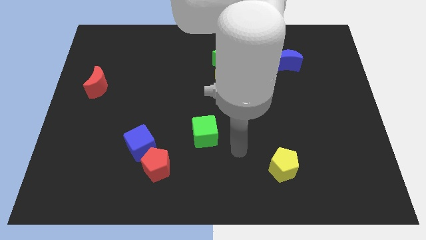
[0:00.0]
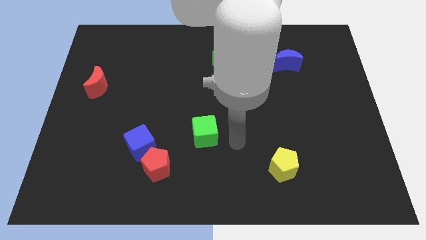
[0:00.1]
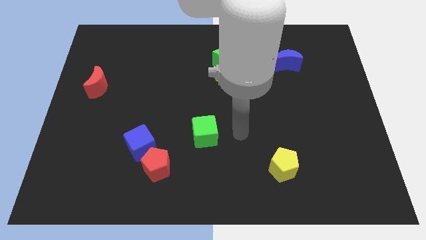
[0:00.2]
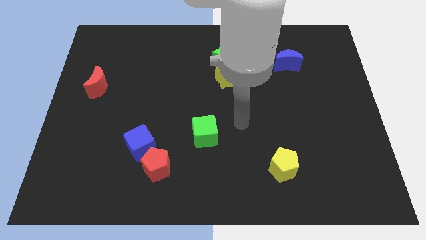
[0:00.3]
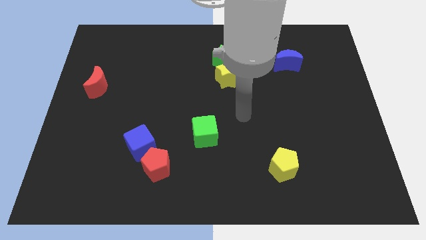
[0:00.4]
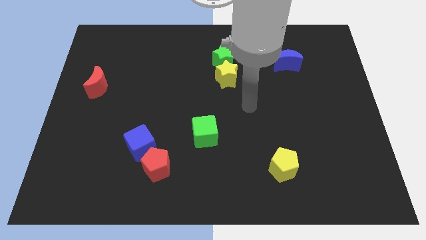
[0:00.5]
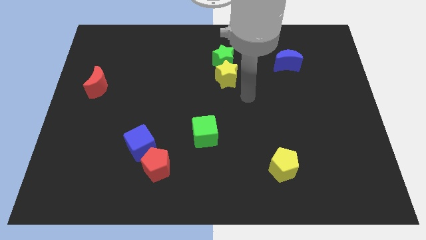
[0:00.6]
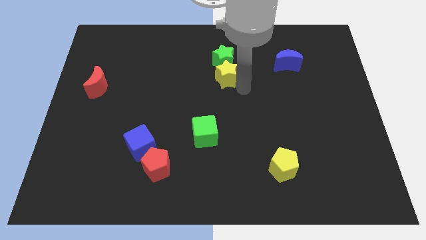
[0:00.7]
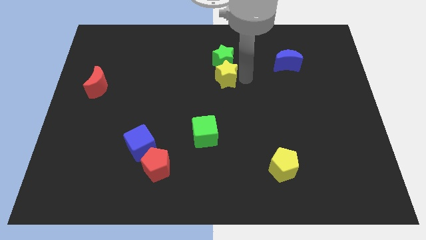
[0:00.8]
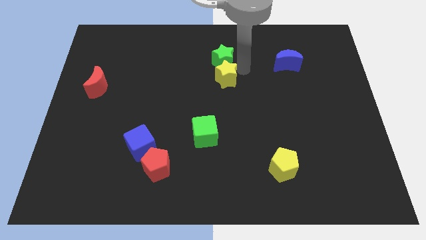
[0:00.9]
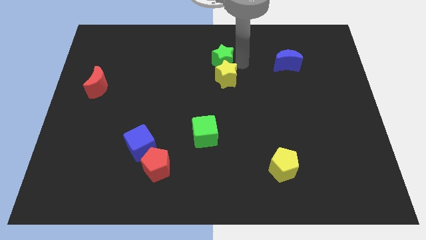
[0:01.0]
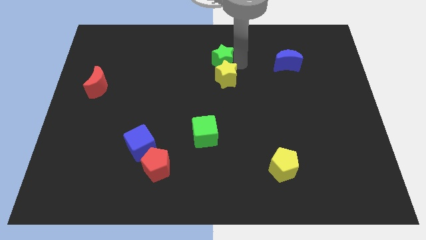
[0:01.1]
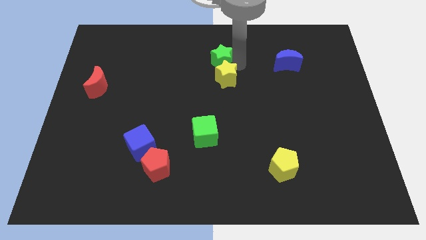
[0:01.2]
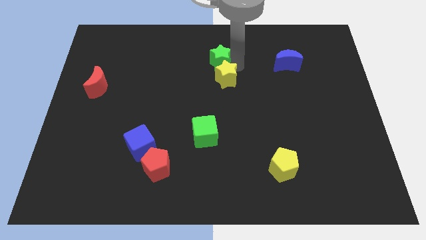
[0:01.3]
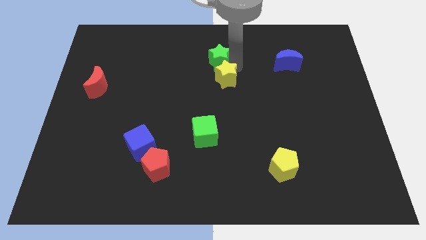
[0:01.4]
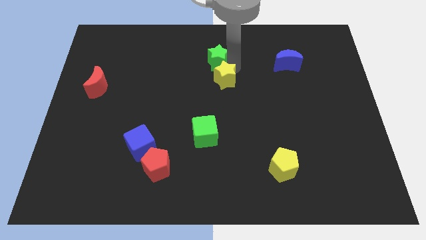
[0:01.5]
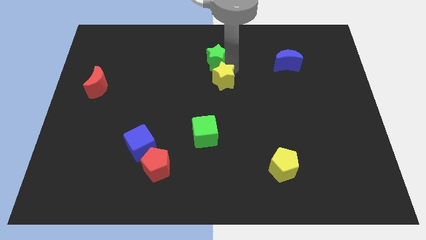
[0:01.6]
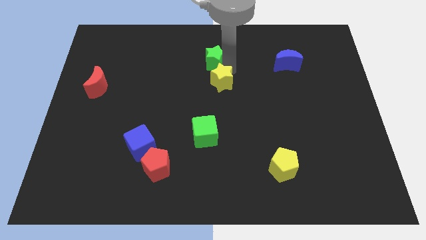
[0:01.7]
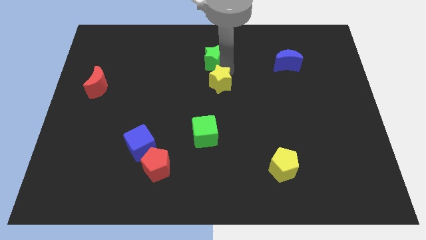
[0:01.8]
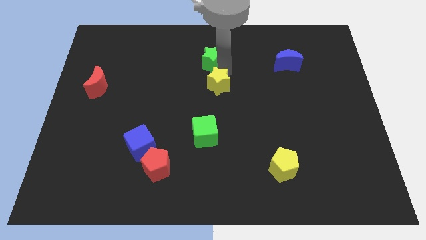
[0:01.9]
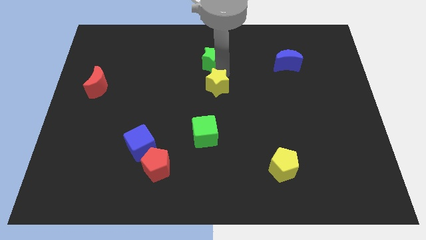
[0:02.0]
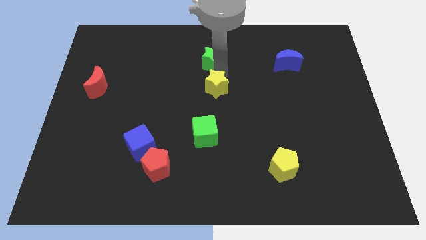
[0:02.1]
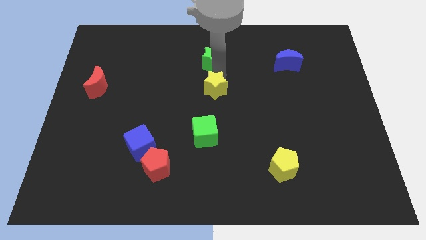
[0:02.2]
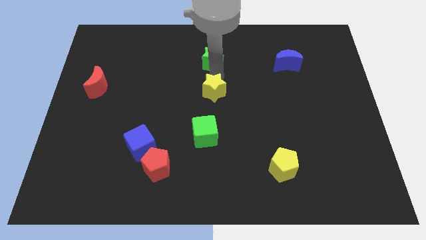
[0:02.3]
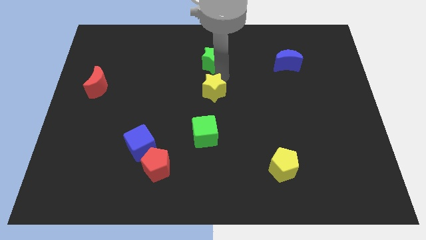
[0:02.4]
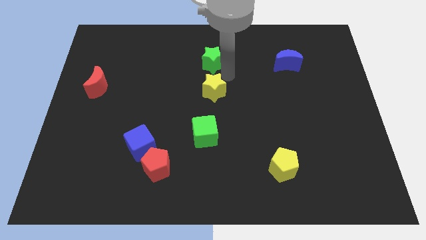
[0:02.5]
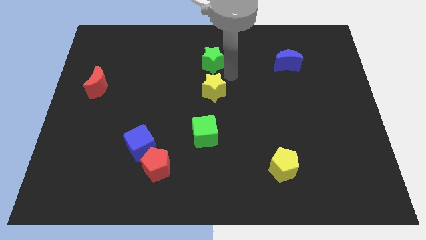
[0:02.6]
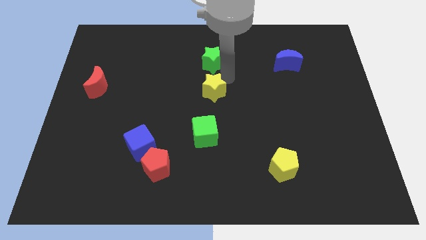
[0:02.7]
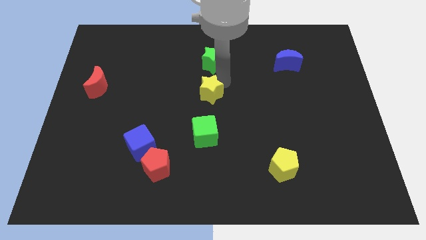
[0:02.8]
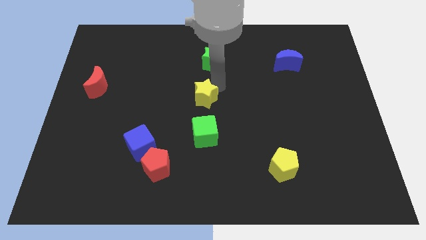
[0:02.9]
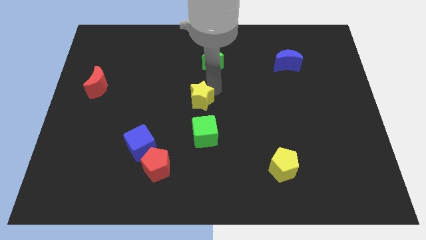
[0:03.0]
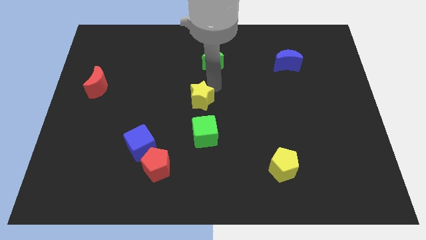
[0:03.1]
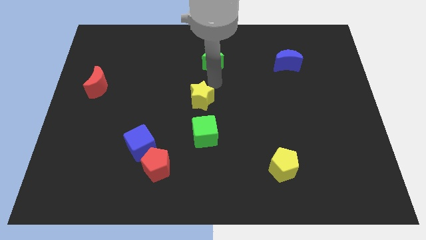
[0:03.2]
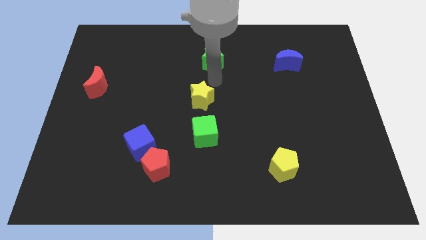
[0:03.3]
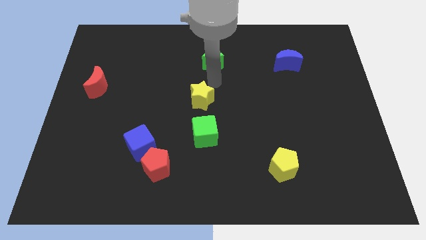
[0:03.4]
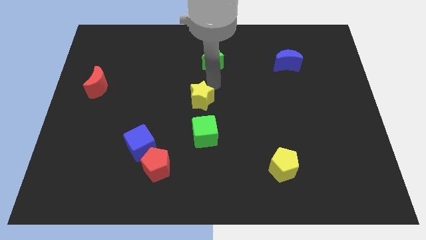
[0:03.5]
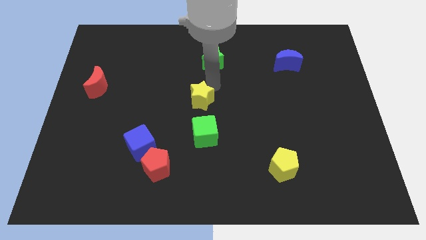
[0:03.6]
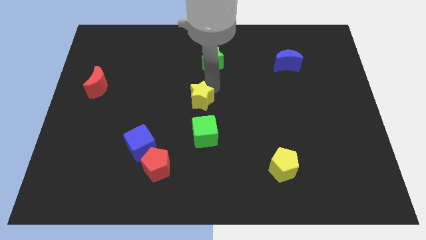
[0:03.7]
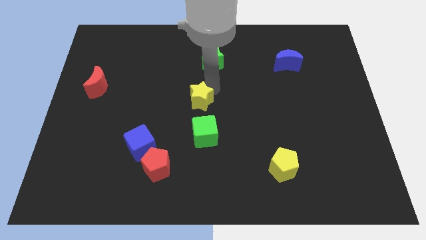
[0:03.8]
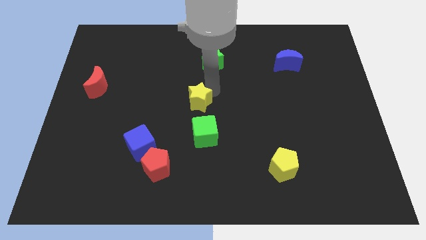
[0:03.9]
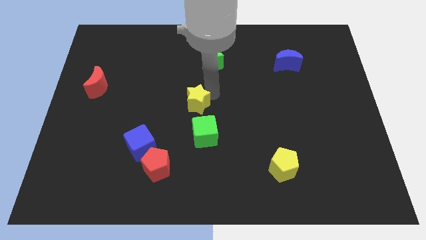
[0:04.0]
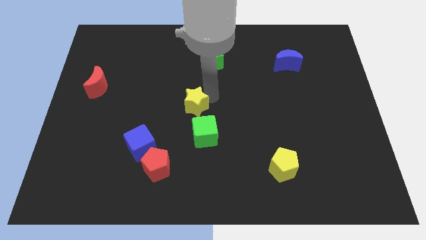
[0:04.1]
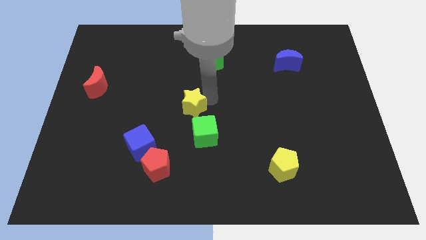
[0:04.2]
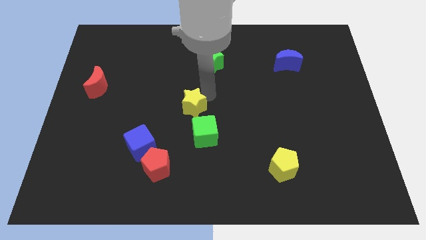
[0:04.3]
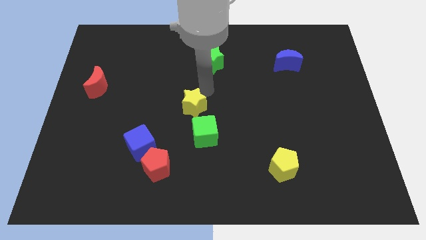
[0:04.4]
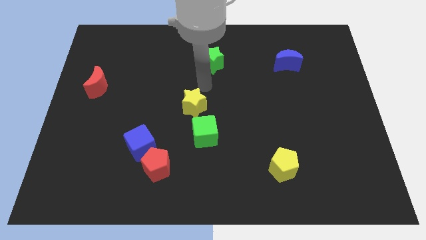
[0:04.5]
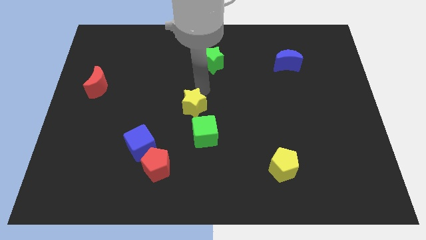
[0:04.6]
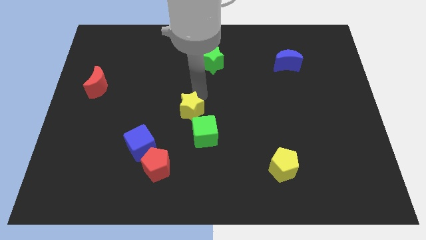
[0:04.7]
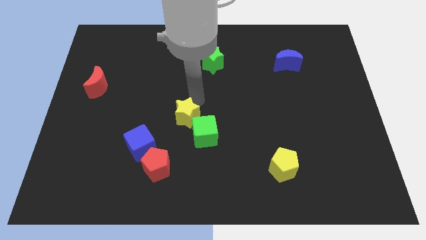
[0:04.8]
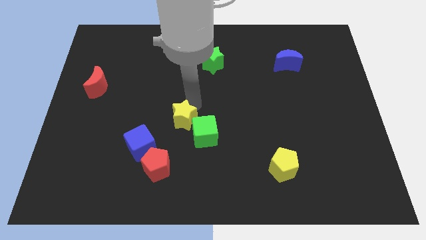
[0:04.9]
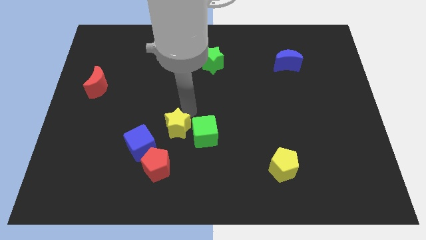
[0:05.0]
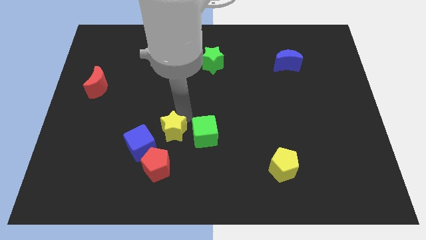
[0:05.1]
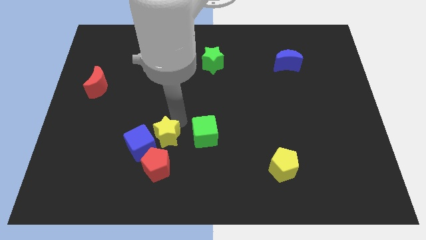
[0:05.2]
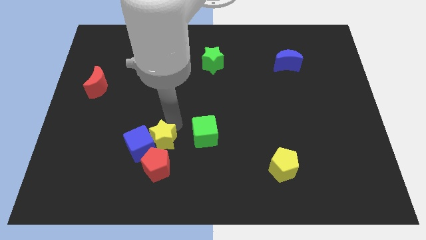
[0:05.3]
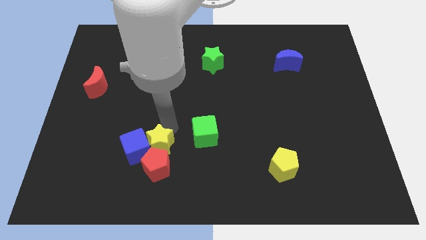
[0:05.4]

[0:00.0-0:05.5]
slide the yellow star to the red pentagon

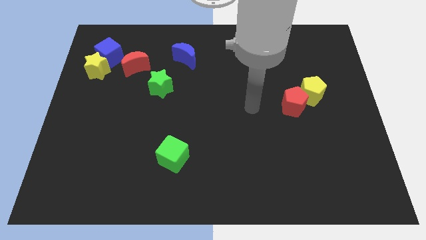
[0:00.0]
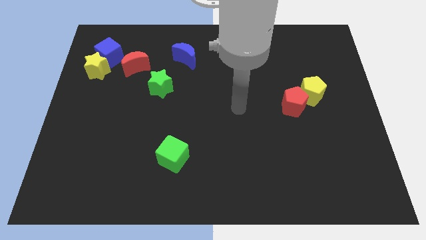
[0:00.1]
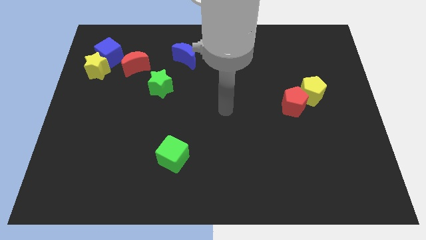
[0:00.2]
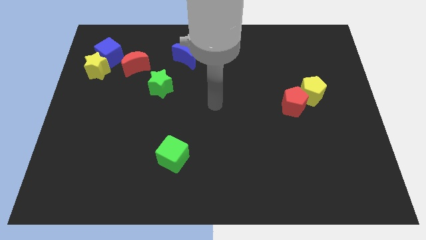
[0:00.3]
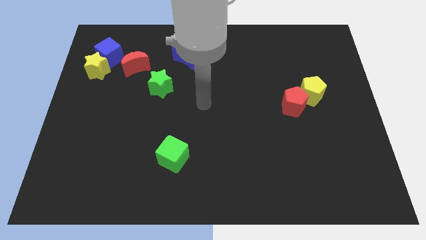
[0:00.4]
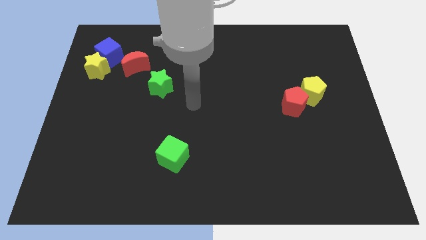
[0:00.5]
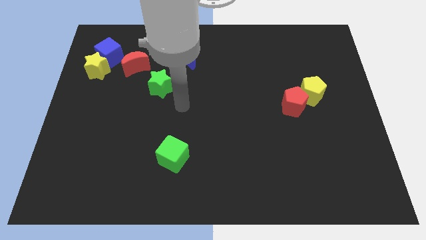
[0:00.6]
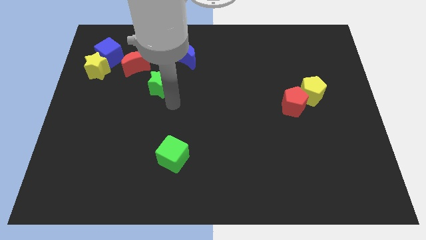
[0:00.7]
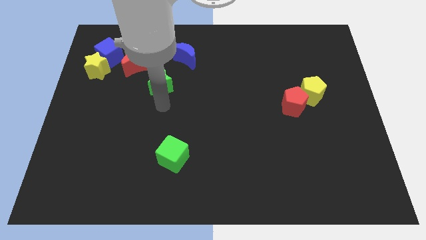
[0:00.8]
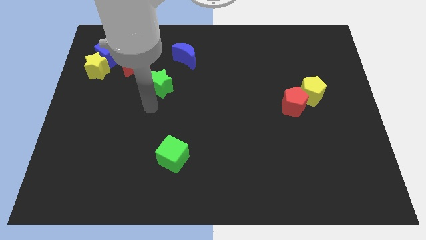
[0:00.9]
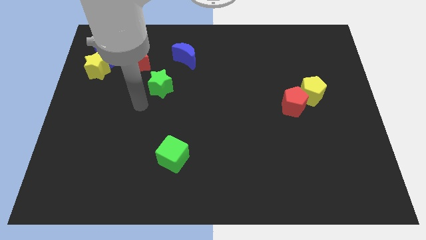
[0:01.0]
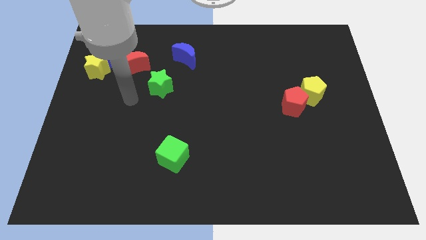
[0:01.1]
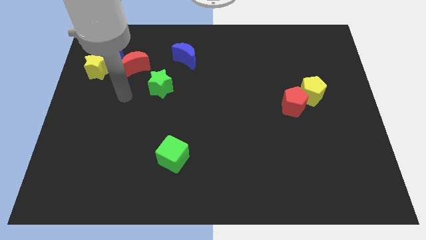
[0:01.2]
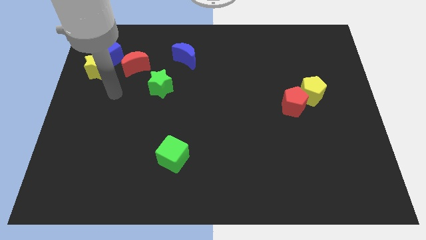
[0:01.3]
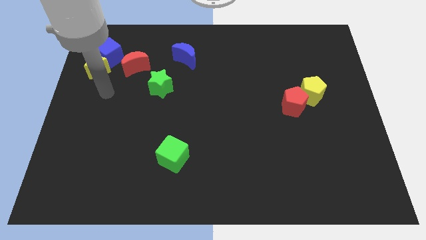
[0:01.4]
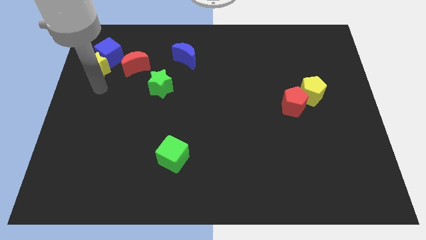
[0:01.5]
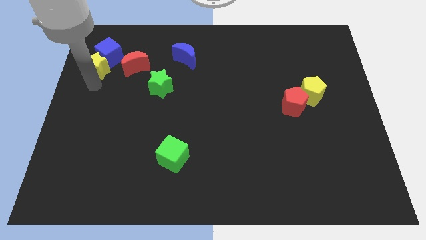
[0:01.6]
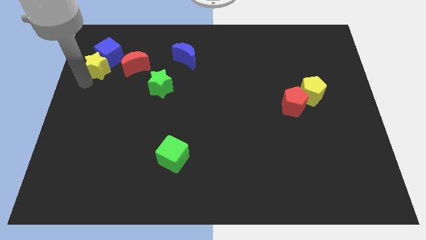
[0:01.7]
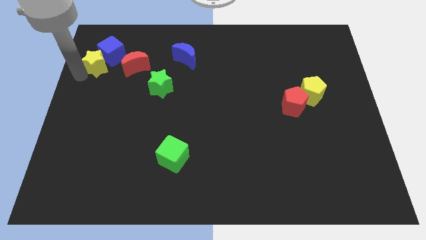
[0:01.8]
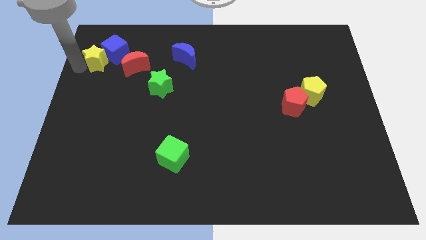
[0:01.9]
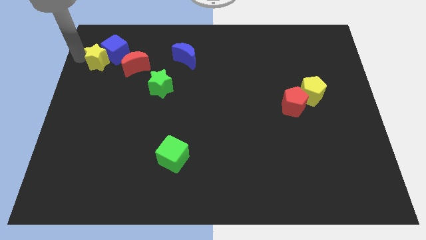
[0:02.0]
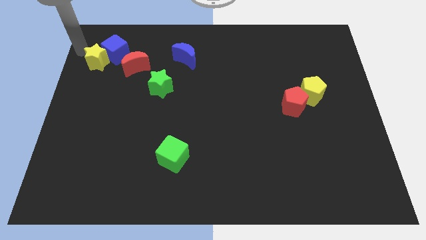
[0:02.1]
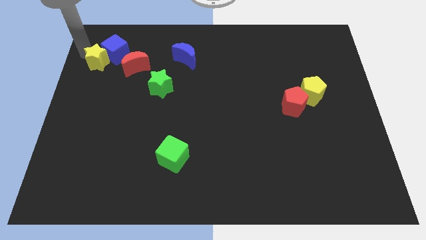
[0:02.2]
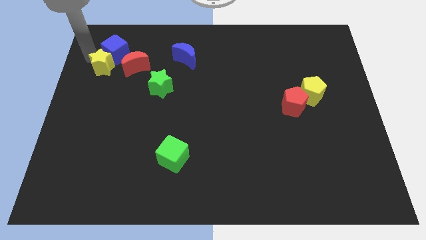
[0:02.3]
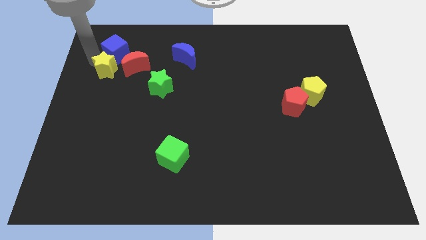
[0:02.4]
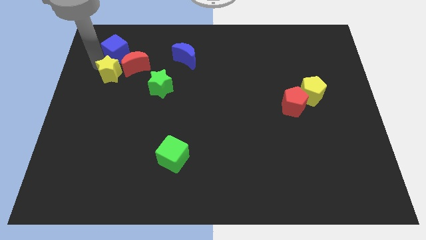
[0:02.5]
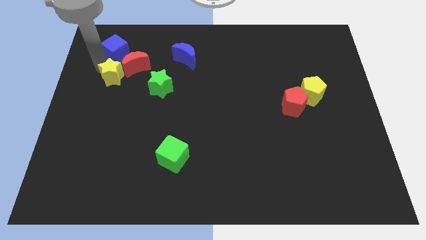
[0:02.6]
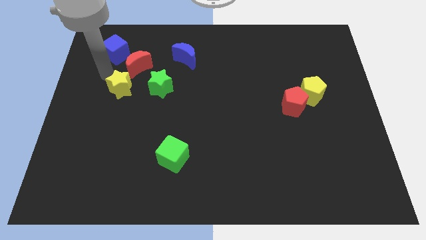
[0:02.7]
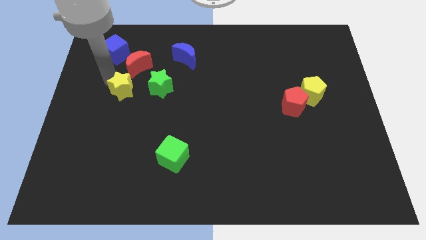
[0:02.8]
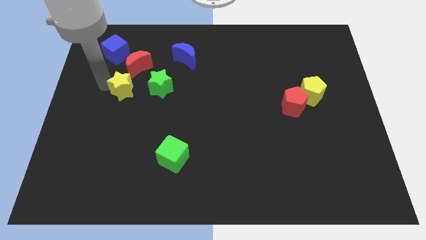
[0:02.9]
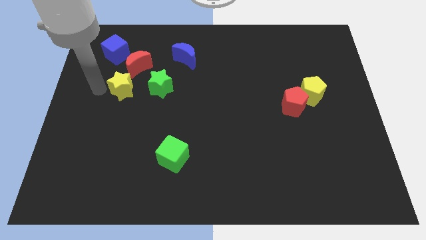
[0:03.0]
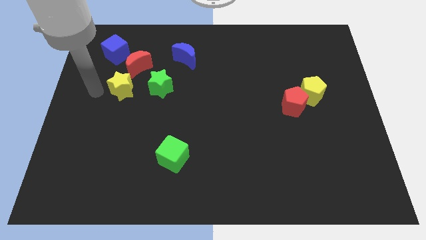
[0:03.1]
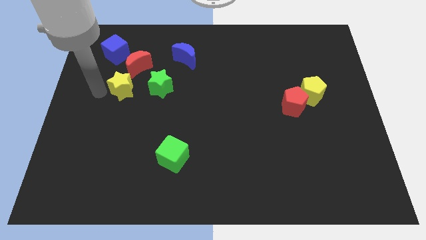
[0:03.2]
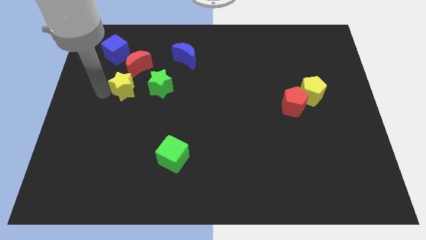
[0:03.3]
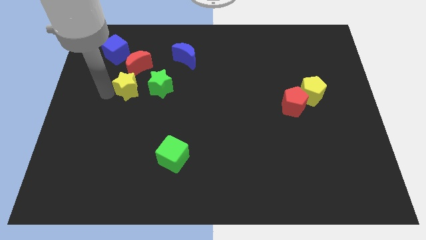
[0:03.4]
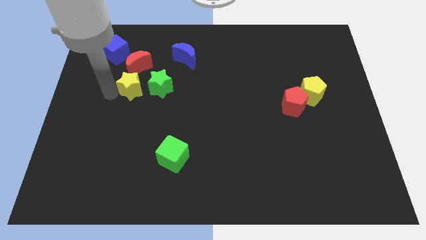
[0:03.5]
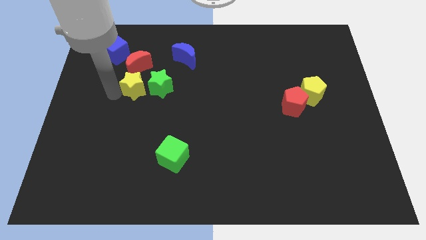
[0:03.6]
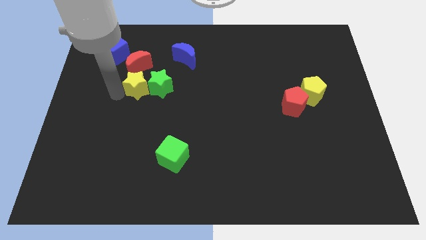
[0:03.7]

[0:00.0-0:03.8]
push the yellow star towards the green star
